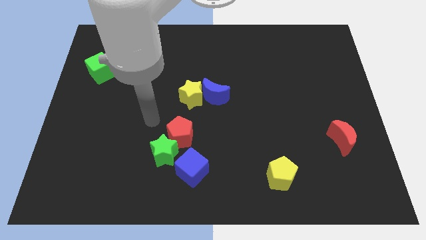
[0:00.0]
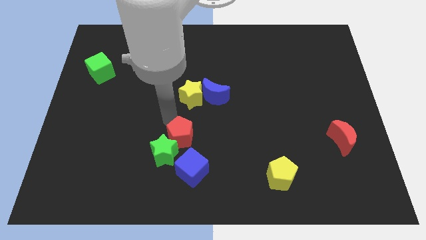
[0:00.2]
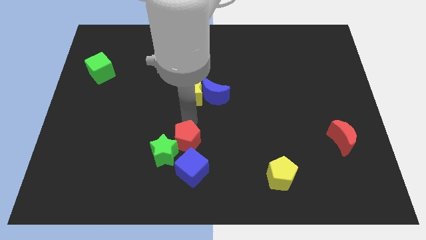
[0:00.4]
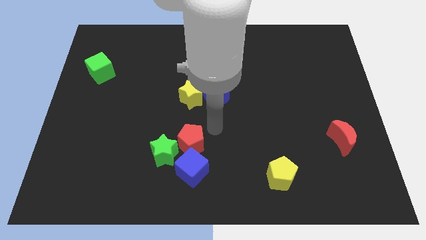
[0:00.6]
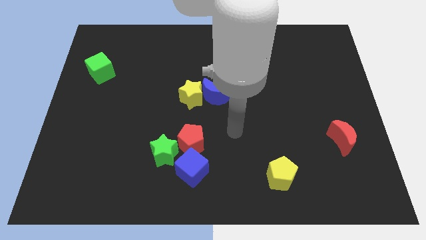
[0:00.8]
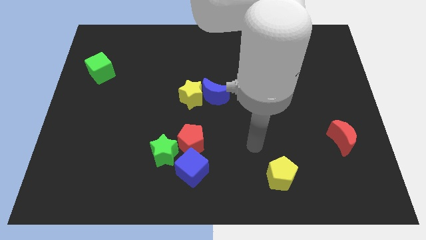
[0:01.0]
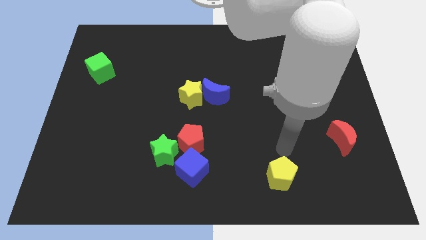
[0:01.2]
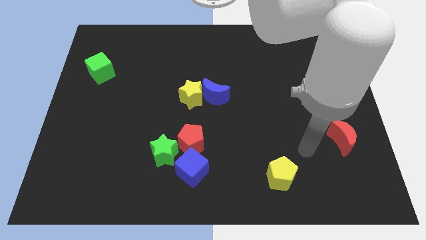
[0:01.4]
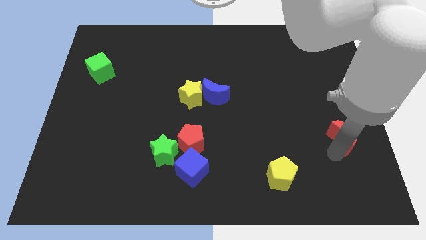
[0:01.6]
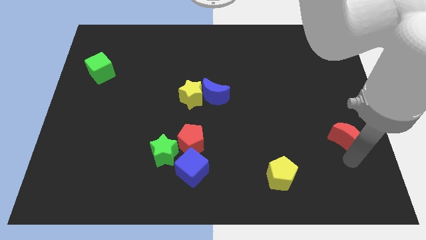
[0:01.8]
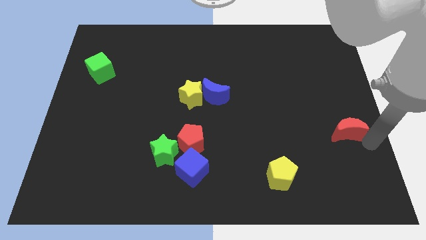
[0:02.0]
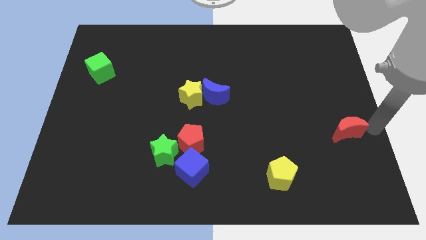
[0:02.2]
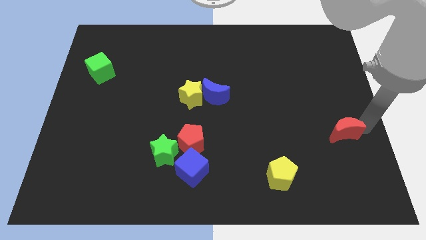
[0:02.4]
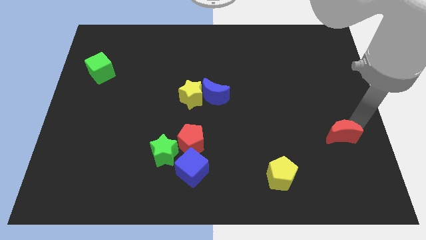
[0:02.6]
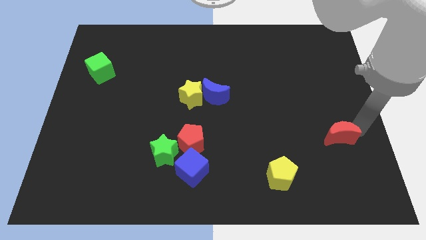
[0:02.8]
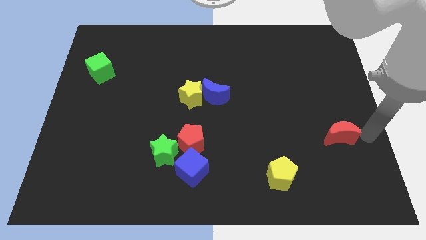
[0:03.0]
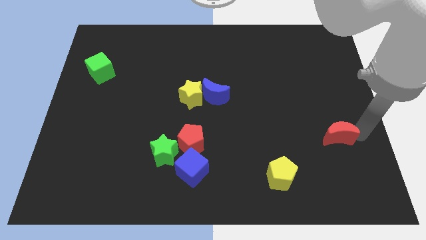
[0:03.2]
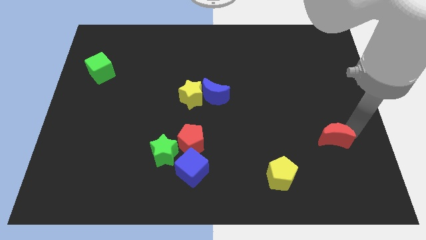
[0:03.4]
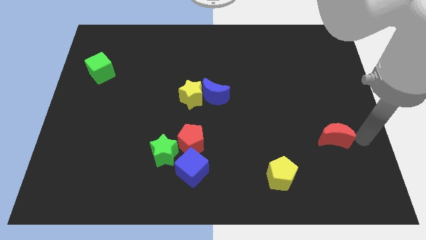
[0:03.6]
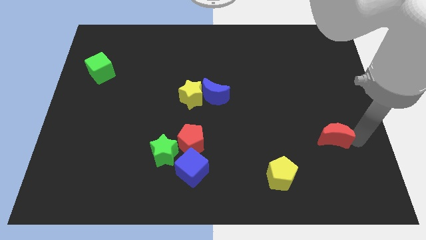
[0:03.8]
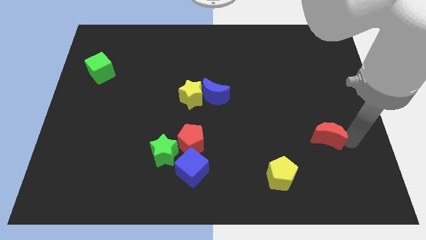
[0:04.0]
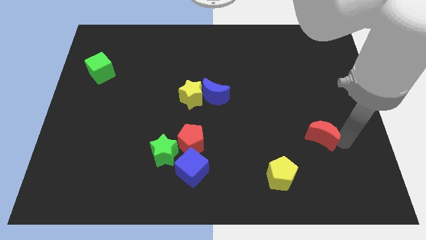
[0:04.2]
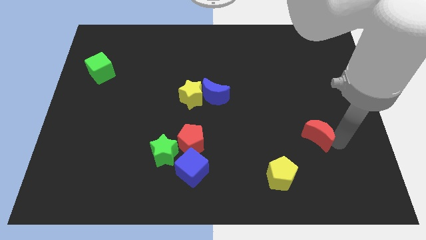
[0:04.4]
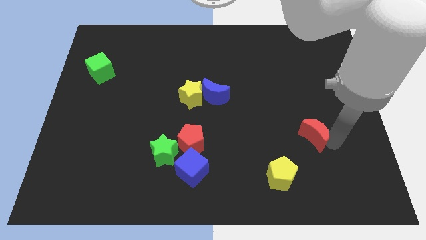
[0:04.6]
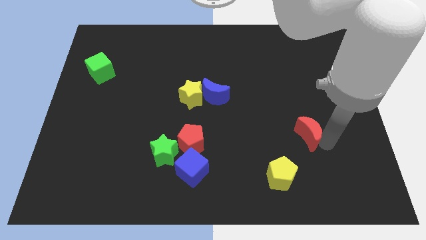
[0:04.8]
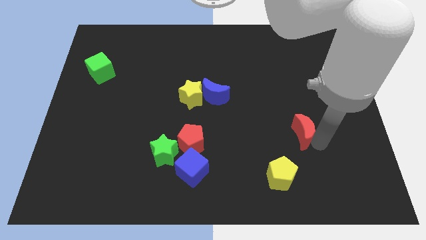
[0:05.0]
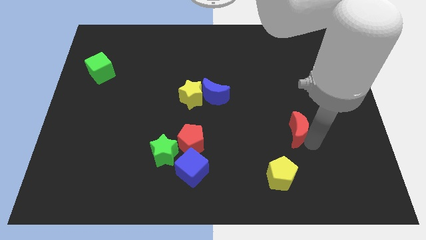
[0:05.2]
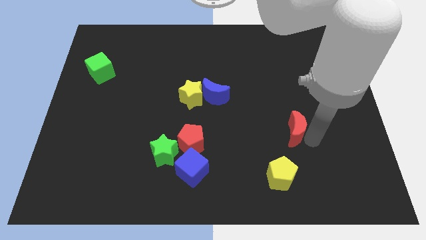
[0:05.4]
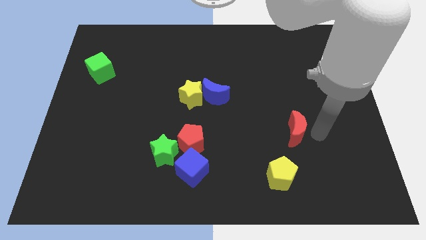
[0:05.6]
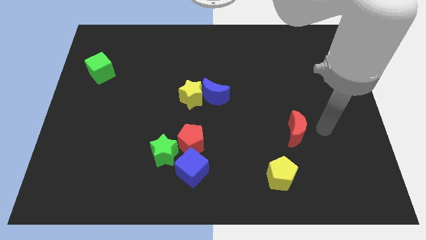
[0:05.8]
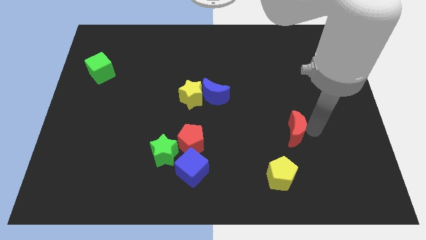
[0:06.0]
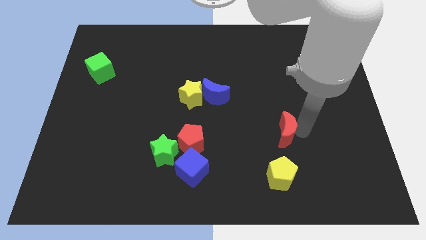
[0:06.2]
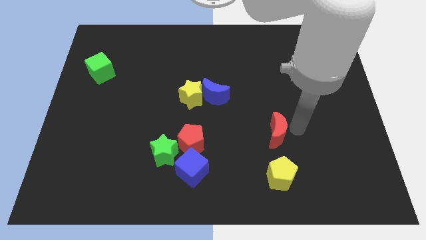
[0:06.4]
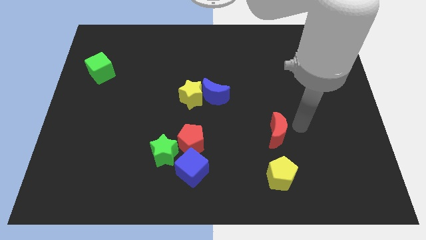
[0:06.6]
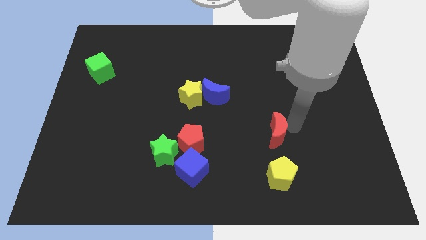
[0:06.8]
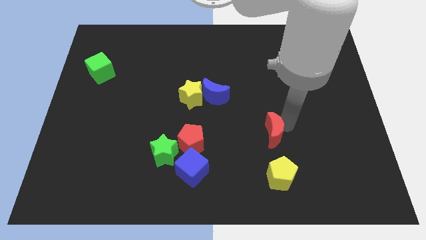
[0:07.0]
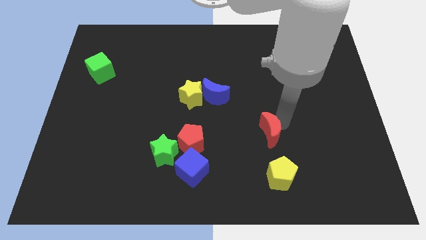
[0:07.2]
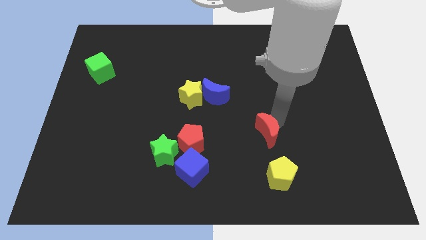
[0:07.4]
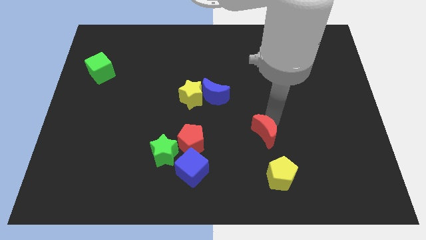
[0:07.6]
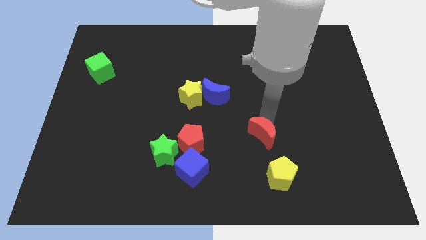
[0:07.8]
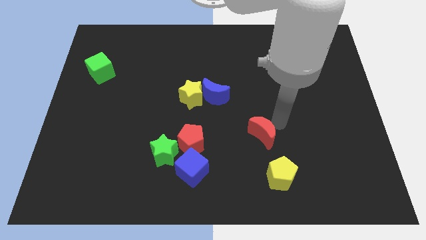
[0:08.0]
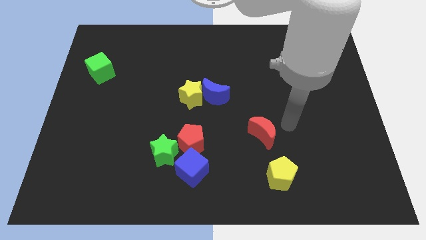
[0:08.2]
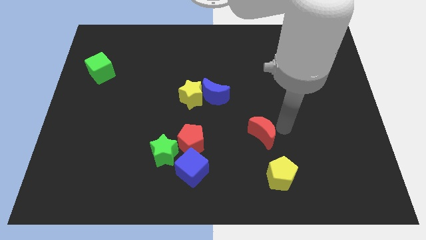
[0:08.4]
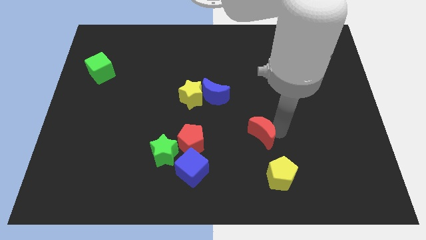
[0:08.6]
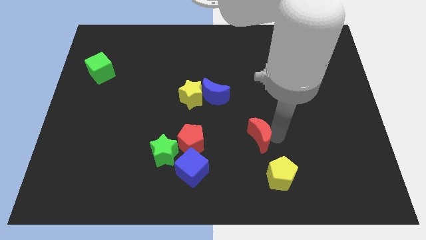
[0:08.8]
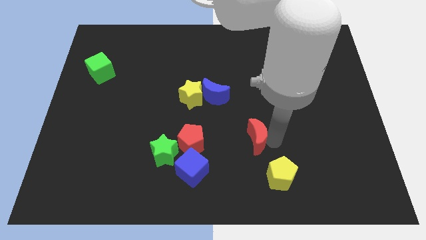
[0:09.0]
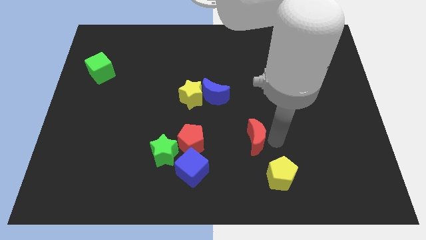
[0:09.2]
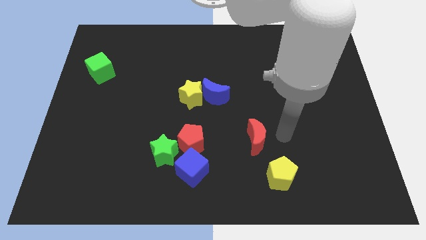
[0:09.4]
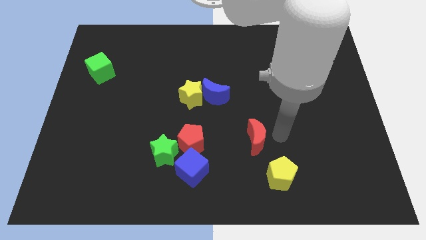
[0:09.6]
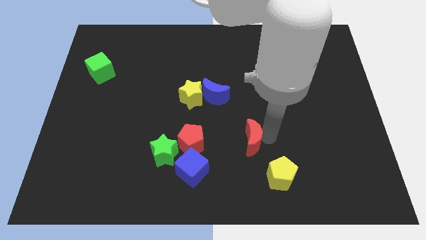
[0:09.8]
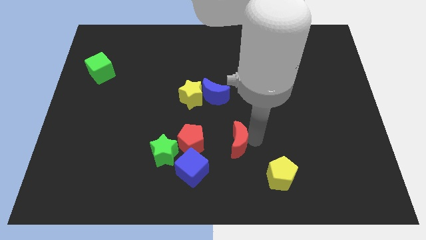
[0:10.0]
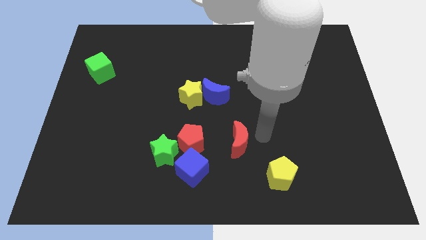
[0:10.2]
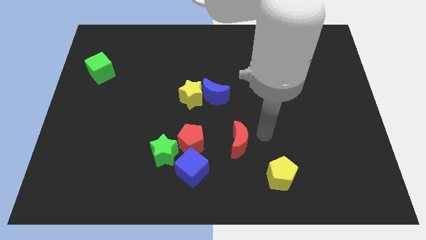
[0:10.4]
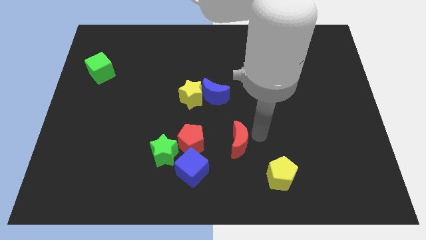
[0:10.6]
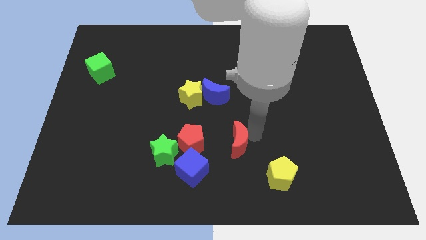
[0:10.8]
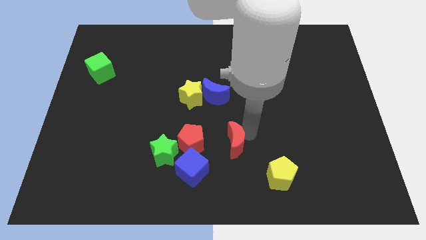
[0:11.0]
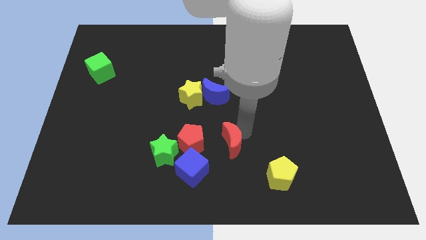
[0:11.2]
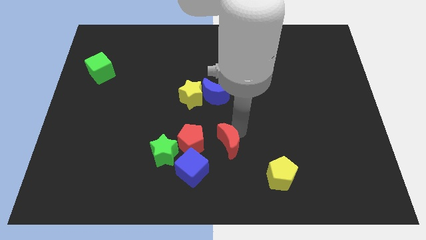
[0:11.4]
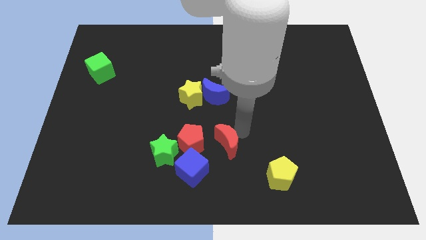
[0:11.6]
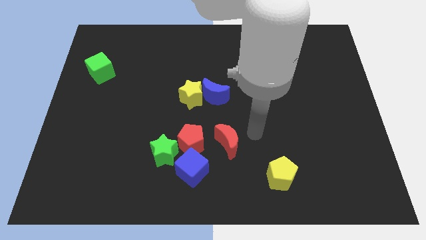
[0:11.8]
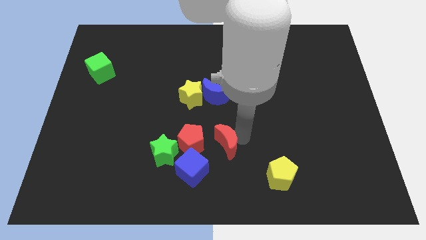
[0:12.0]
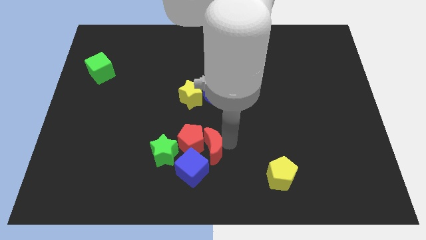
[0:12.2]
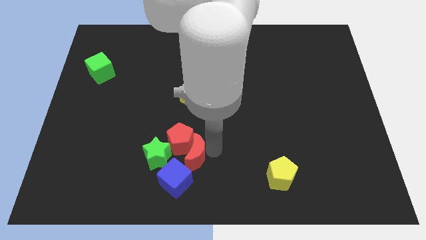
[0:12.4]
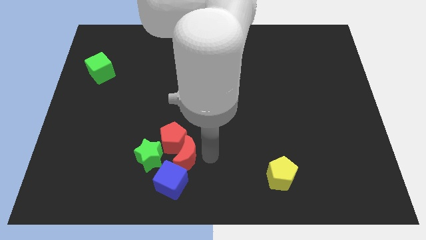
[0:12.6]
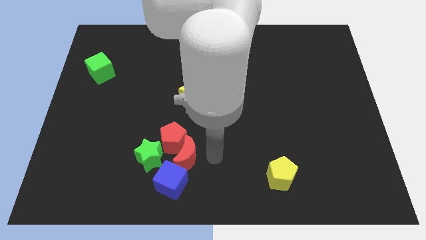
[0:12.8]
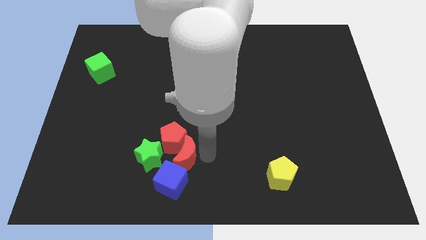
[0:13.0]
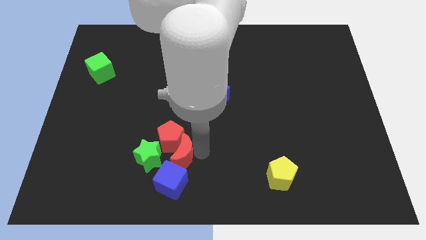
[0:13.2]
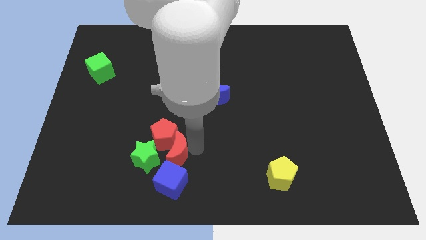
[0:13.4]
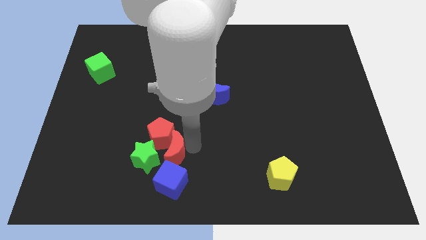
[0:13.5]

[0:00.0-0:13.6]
put the red moon next to the green star
